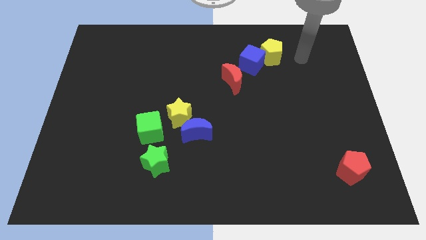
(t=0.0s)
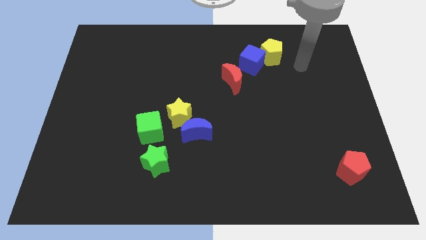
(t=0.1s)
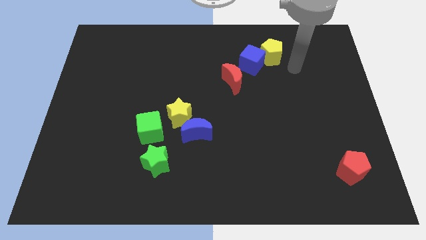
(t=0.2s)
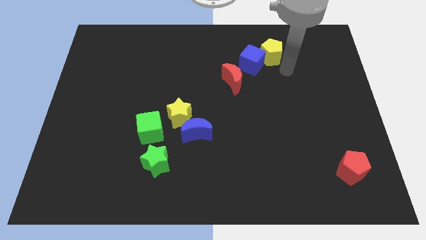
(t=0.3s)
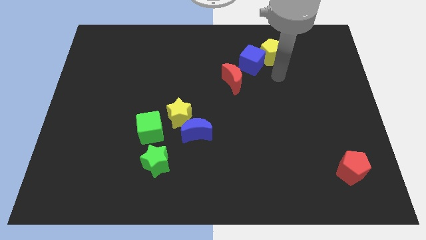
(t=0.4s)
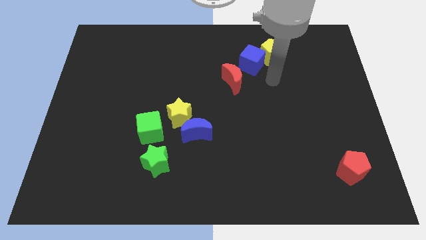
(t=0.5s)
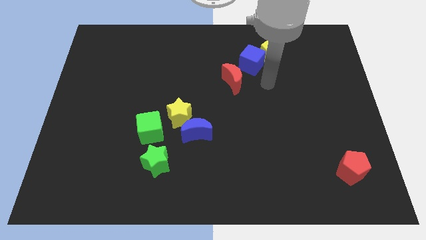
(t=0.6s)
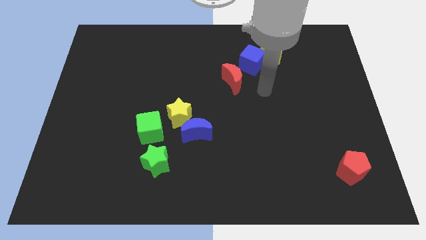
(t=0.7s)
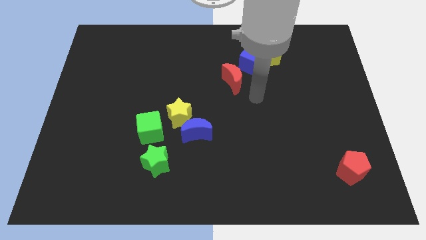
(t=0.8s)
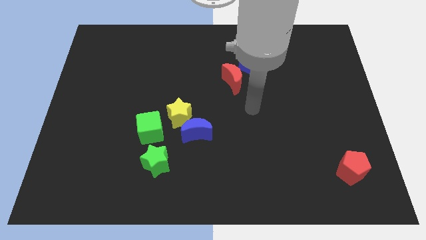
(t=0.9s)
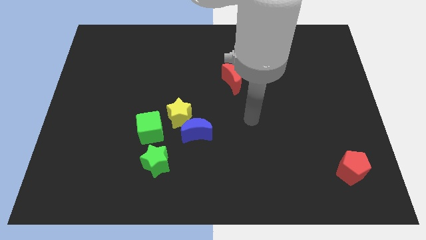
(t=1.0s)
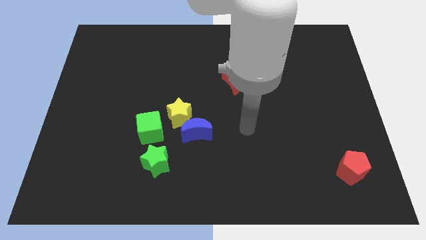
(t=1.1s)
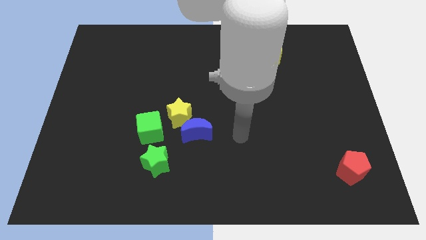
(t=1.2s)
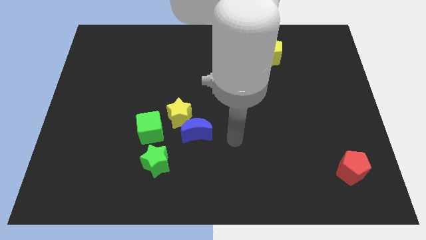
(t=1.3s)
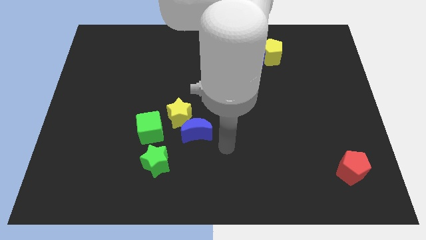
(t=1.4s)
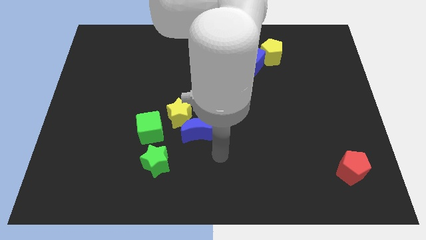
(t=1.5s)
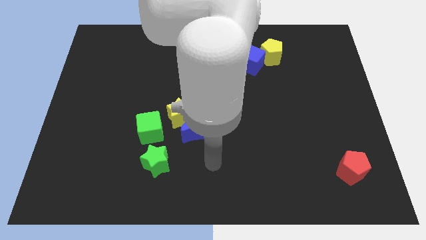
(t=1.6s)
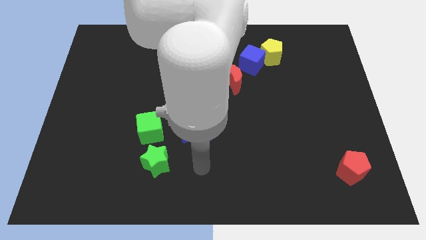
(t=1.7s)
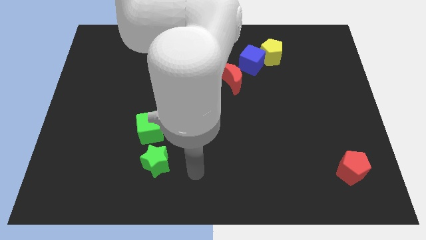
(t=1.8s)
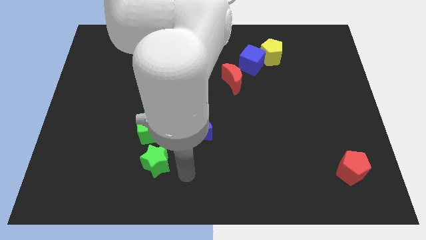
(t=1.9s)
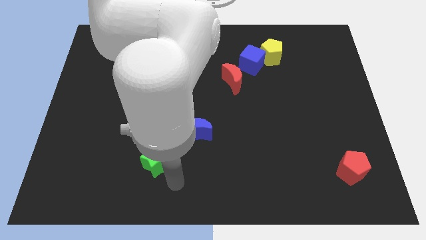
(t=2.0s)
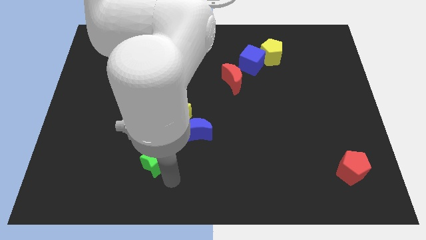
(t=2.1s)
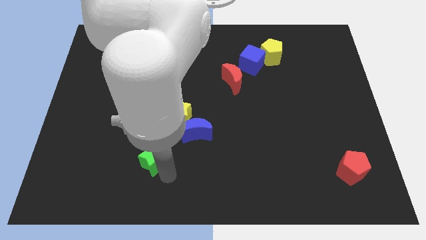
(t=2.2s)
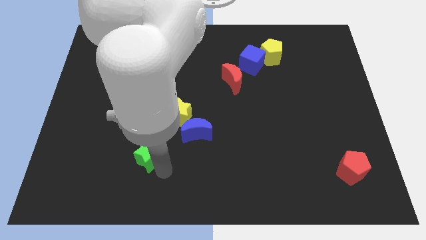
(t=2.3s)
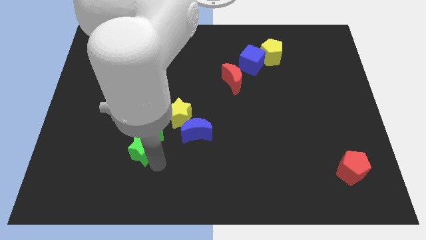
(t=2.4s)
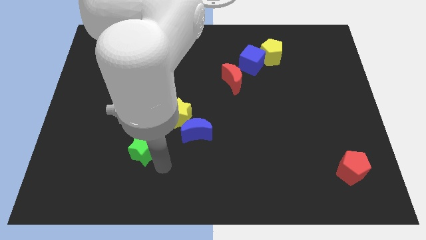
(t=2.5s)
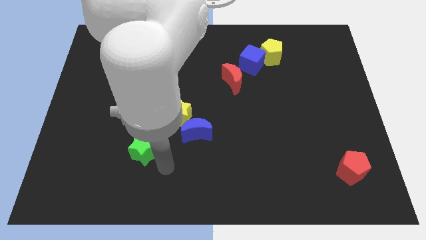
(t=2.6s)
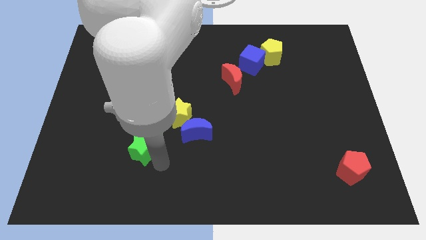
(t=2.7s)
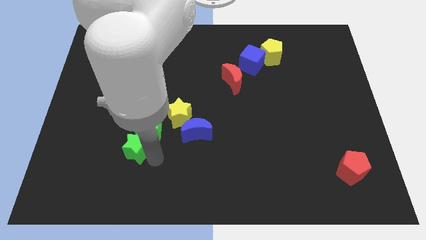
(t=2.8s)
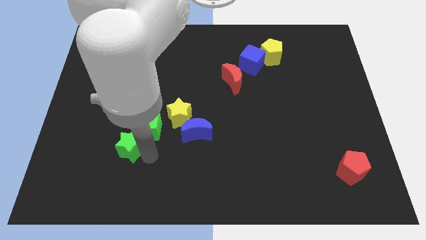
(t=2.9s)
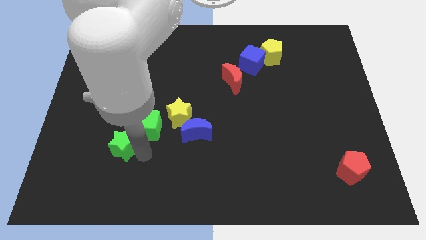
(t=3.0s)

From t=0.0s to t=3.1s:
move the green star up and to the left somewhat

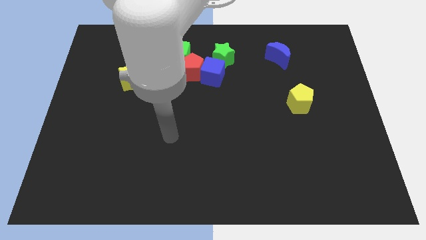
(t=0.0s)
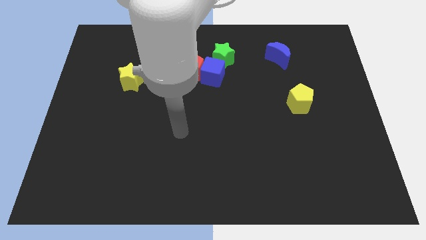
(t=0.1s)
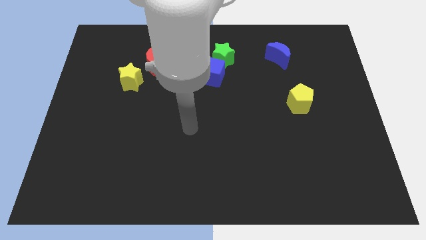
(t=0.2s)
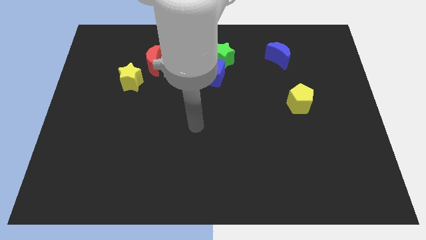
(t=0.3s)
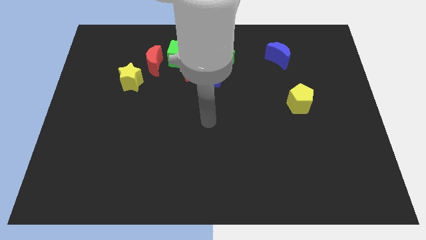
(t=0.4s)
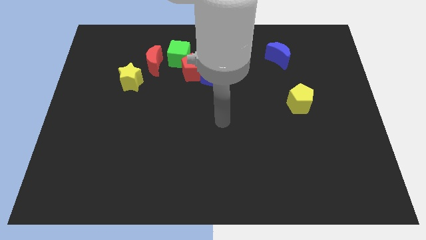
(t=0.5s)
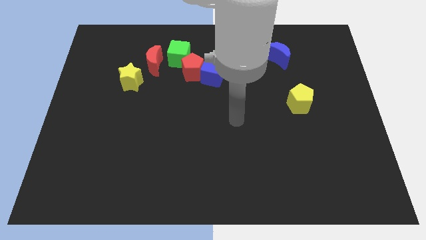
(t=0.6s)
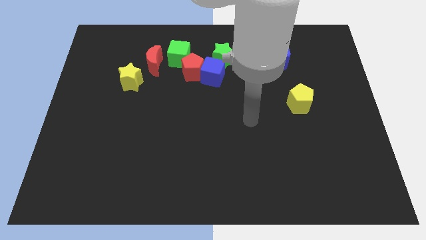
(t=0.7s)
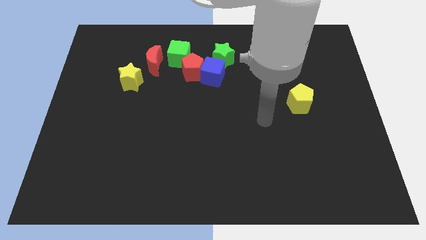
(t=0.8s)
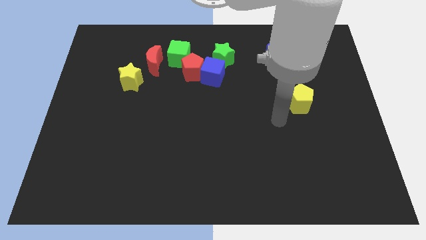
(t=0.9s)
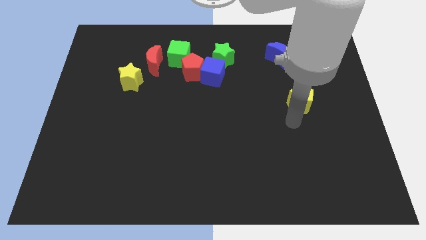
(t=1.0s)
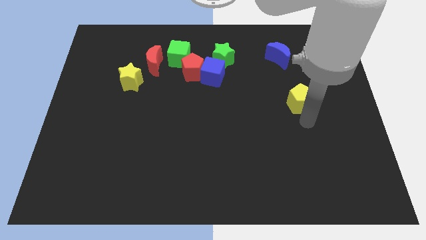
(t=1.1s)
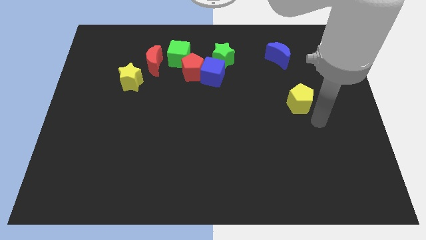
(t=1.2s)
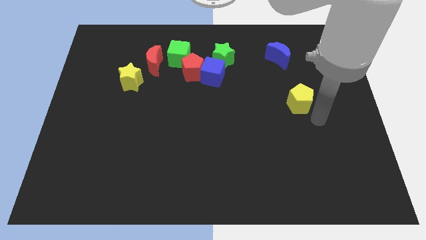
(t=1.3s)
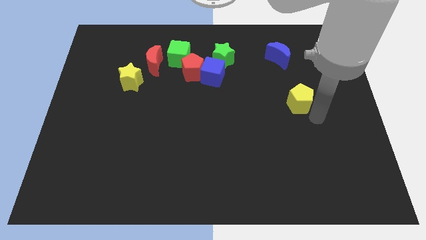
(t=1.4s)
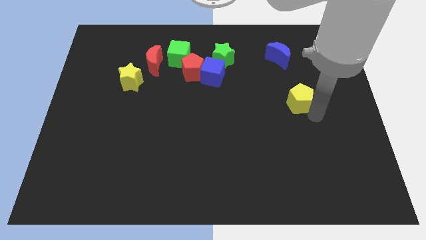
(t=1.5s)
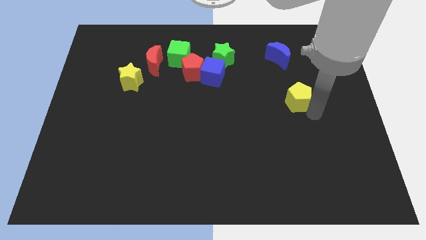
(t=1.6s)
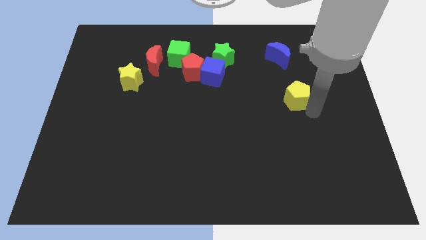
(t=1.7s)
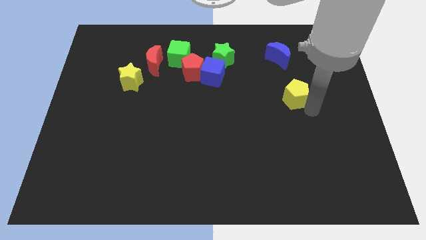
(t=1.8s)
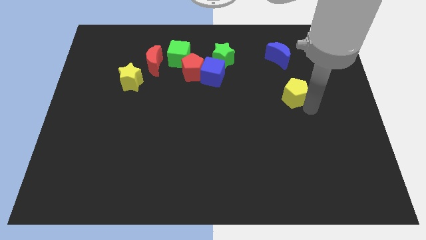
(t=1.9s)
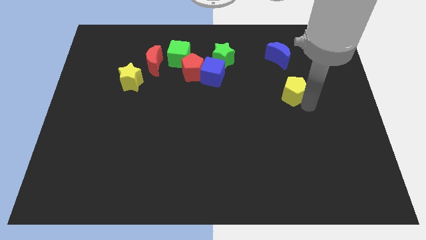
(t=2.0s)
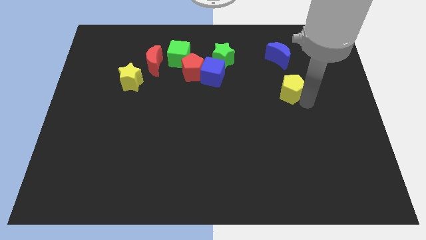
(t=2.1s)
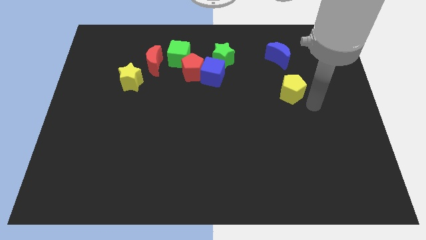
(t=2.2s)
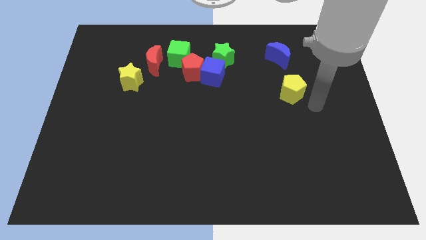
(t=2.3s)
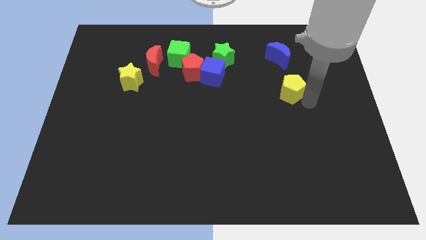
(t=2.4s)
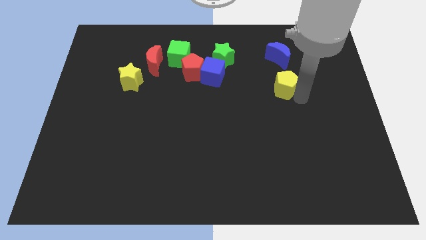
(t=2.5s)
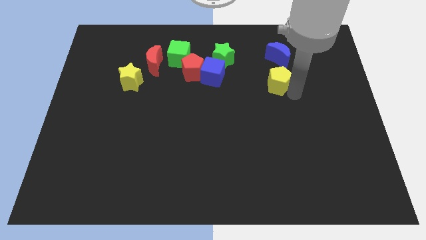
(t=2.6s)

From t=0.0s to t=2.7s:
move the yellow pentagon up and to the left a little

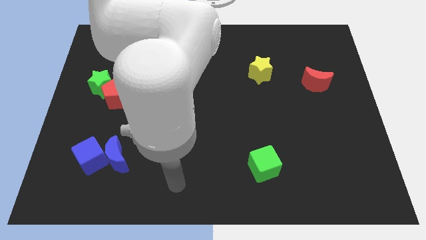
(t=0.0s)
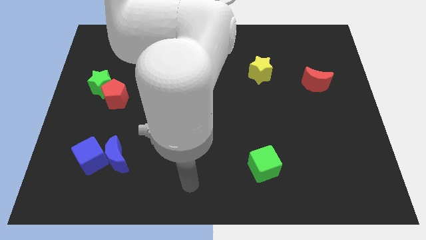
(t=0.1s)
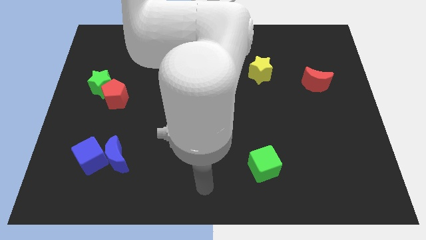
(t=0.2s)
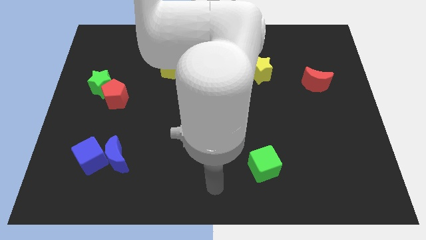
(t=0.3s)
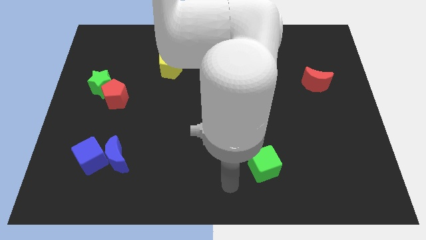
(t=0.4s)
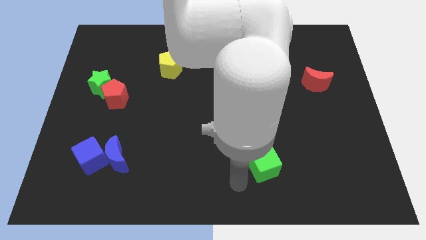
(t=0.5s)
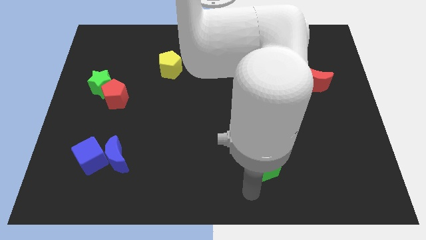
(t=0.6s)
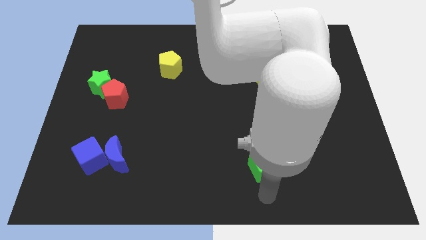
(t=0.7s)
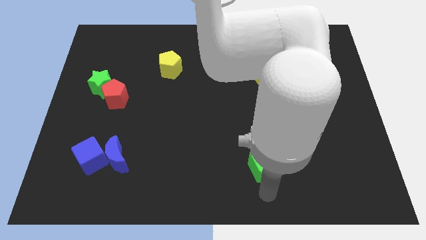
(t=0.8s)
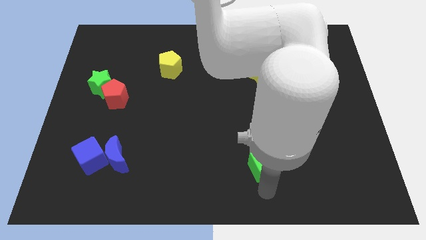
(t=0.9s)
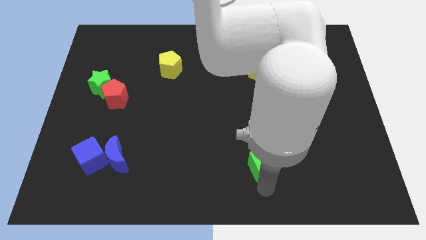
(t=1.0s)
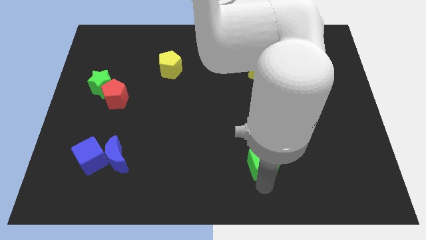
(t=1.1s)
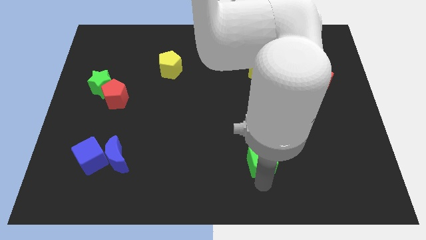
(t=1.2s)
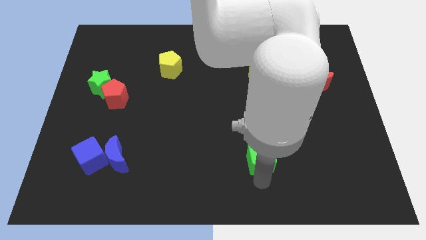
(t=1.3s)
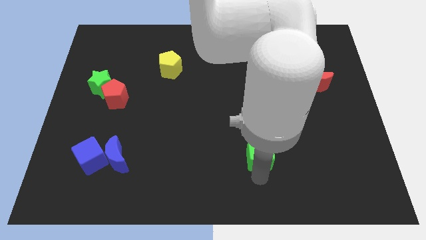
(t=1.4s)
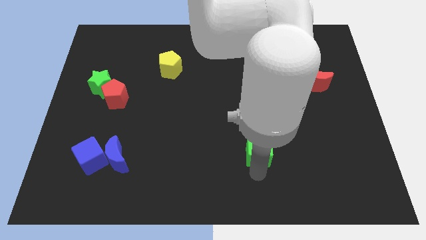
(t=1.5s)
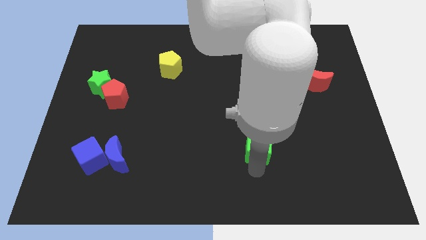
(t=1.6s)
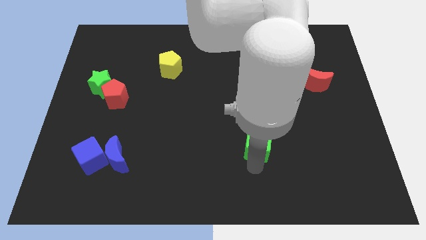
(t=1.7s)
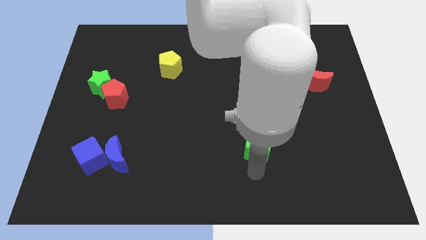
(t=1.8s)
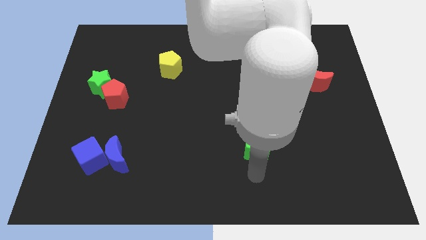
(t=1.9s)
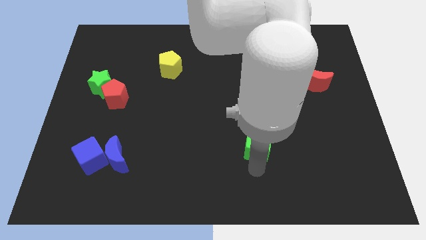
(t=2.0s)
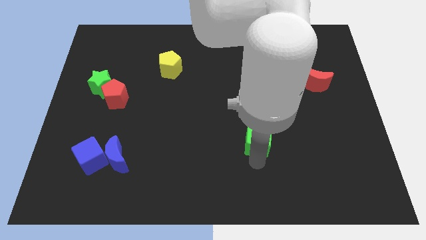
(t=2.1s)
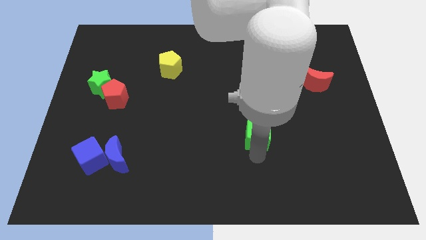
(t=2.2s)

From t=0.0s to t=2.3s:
slide the green cube slightly upwards
